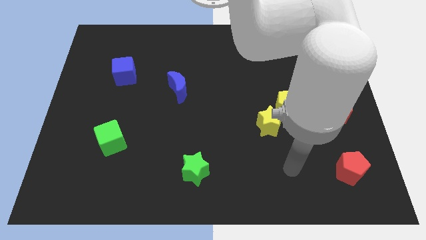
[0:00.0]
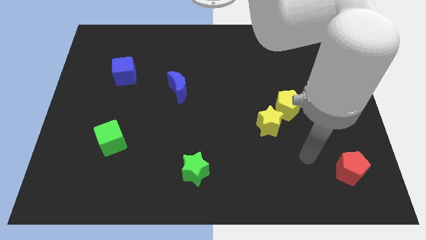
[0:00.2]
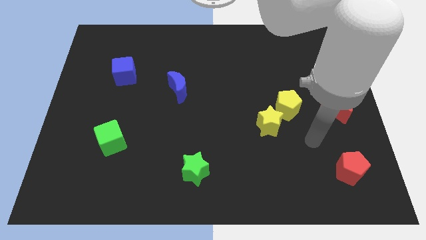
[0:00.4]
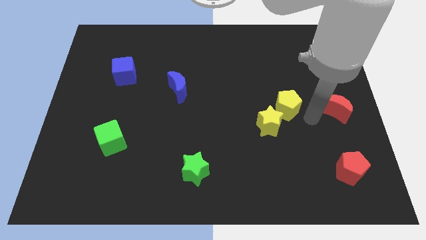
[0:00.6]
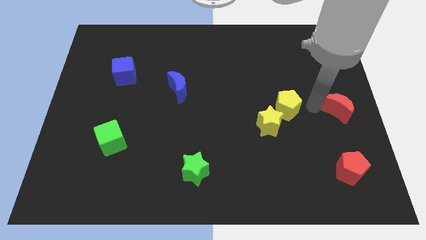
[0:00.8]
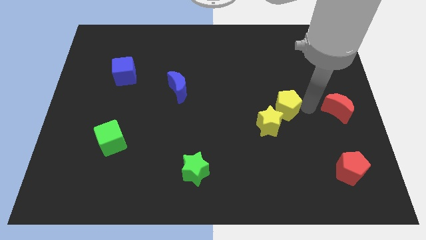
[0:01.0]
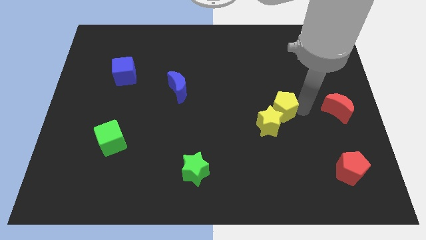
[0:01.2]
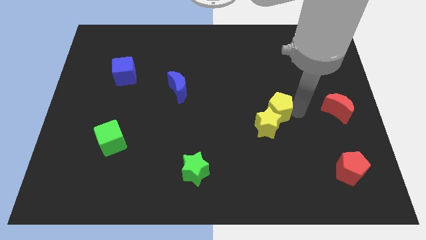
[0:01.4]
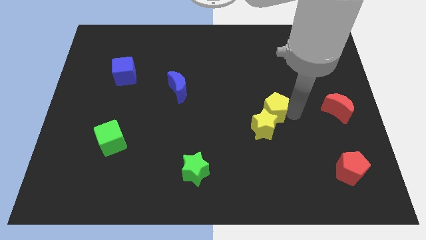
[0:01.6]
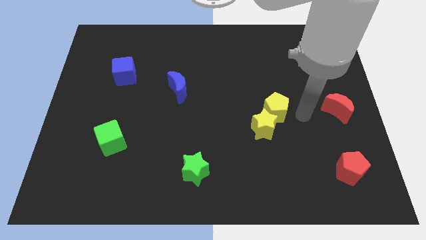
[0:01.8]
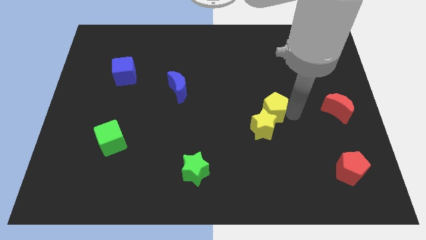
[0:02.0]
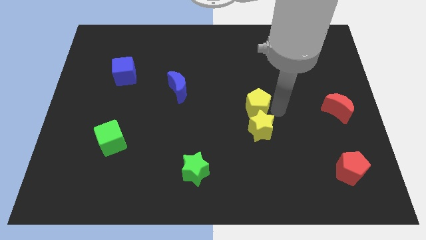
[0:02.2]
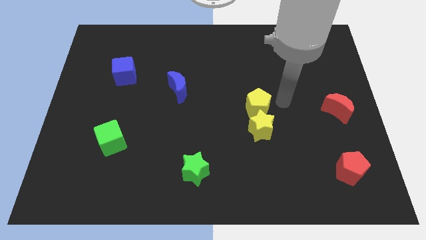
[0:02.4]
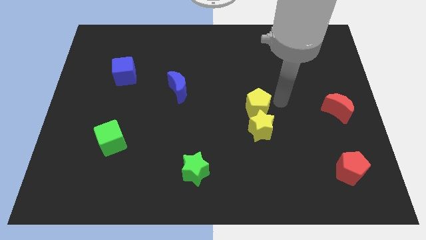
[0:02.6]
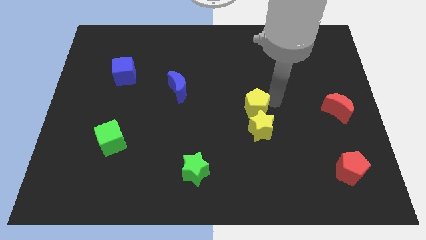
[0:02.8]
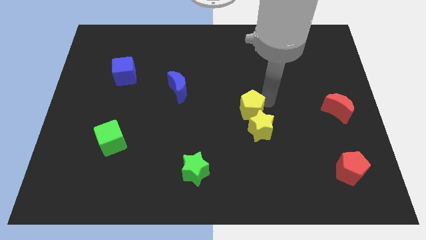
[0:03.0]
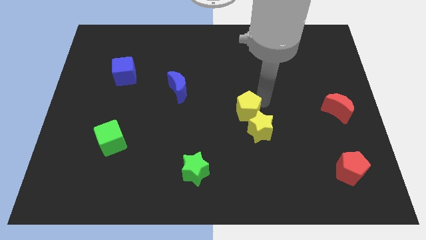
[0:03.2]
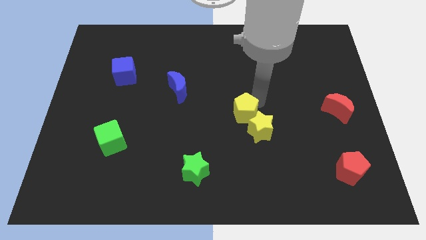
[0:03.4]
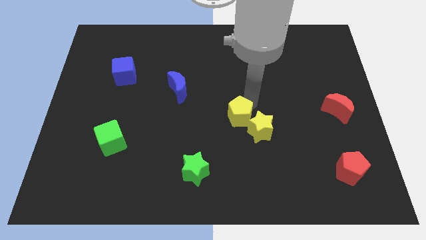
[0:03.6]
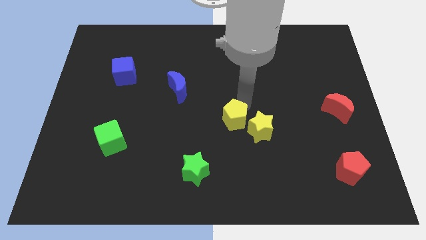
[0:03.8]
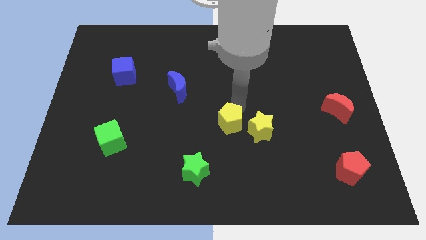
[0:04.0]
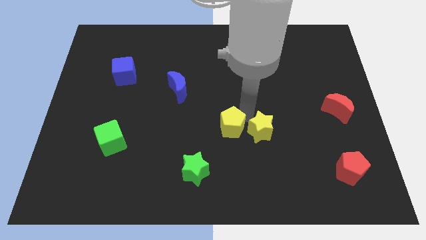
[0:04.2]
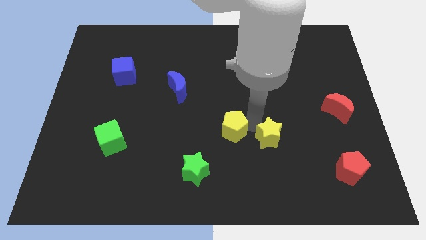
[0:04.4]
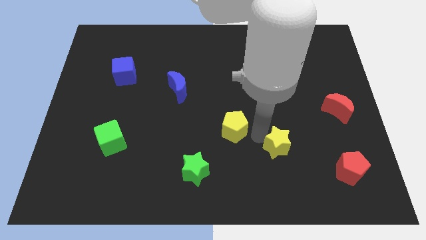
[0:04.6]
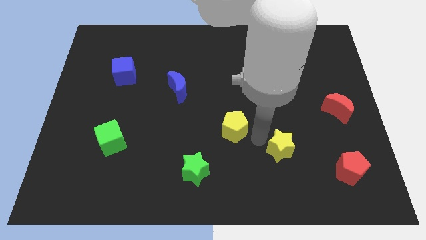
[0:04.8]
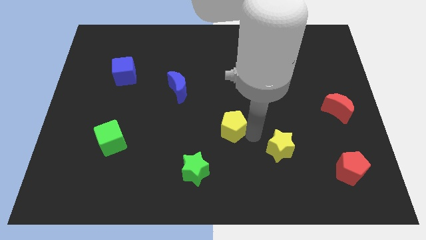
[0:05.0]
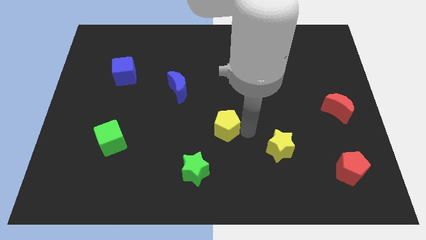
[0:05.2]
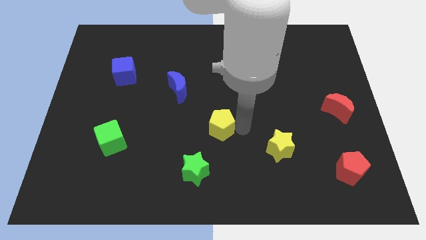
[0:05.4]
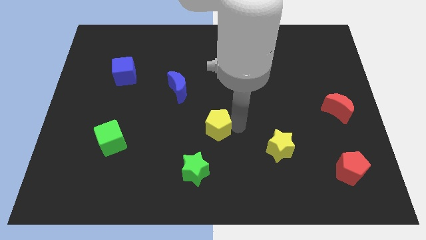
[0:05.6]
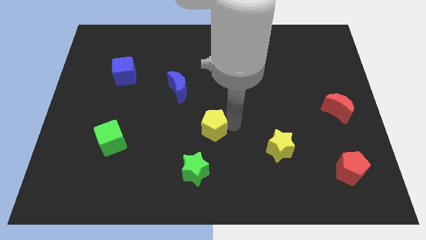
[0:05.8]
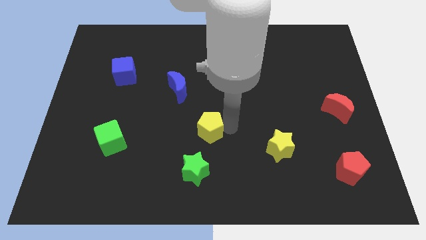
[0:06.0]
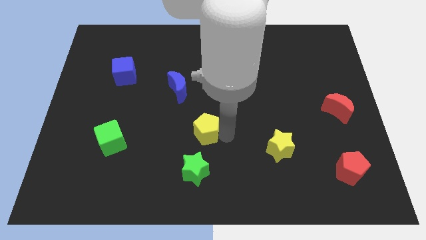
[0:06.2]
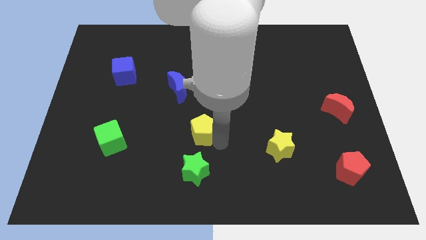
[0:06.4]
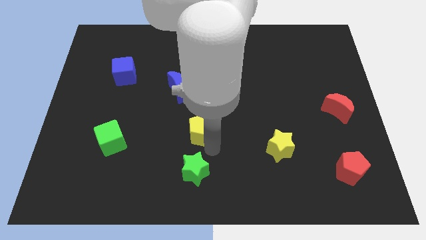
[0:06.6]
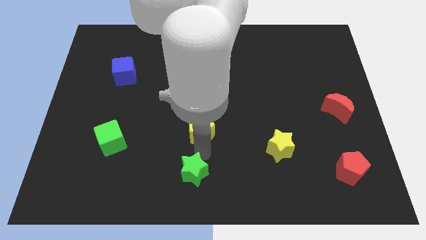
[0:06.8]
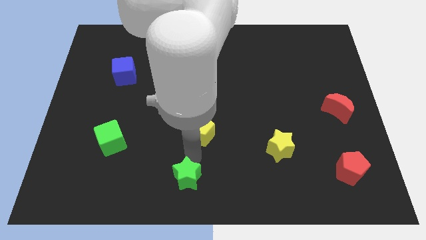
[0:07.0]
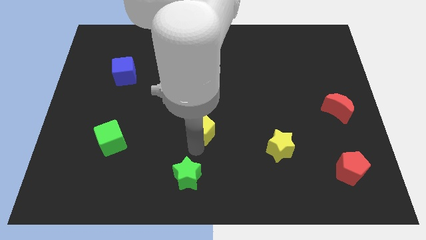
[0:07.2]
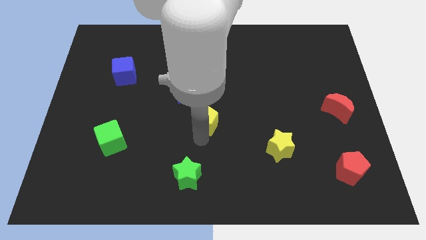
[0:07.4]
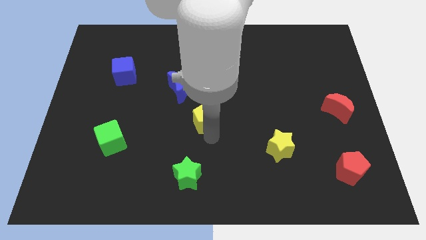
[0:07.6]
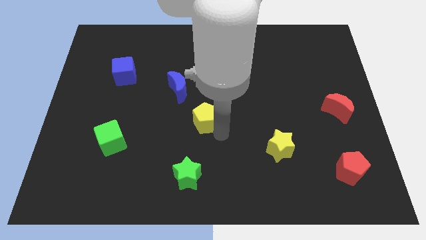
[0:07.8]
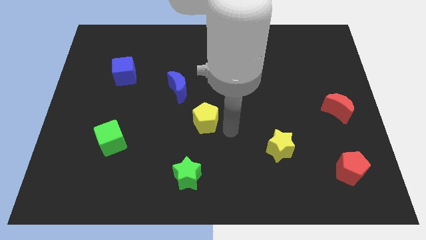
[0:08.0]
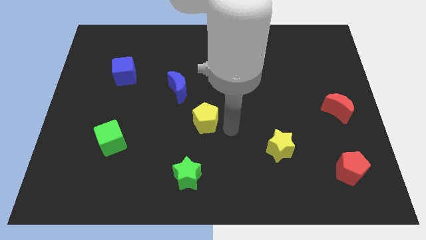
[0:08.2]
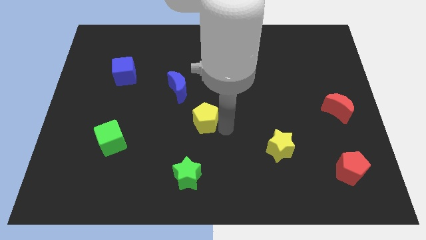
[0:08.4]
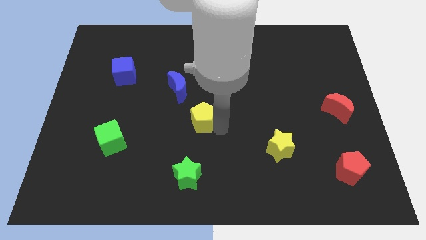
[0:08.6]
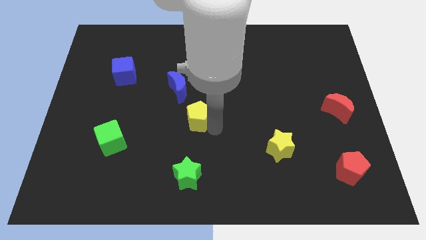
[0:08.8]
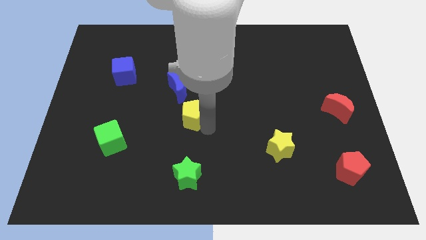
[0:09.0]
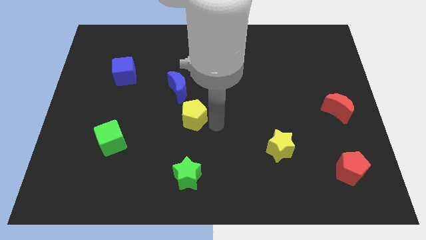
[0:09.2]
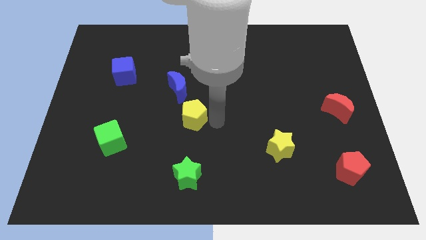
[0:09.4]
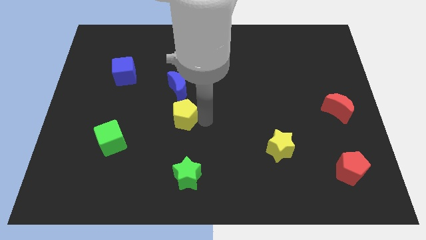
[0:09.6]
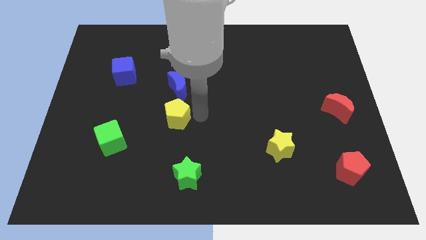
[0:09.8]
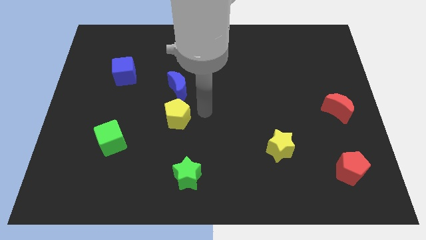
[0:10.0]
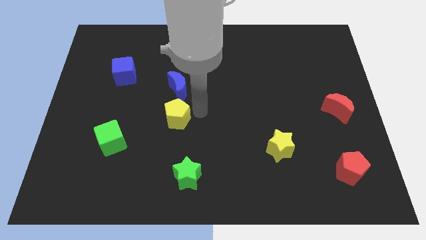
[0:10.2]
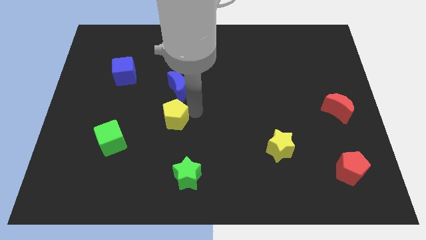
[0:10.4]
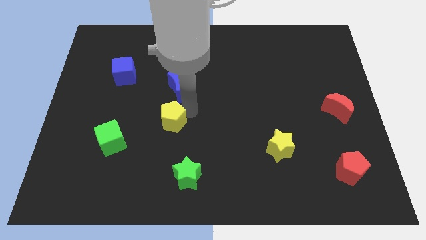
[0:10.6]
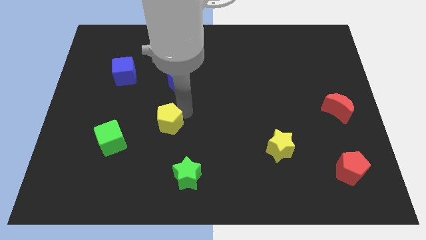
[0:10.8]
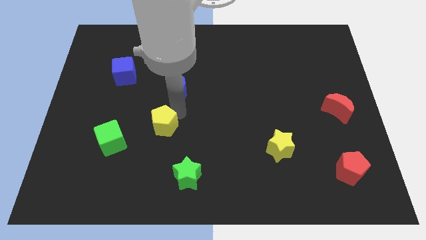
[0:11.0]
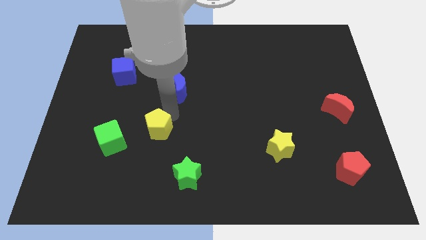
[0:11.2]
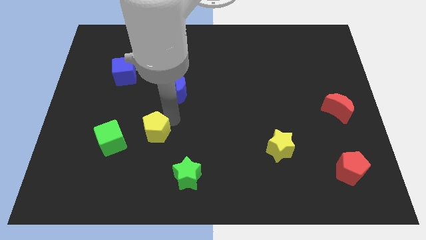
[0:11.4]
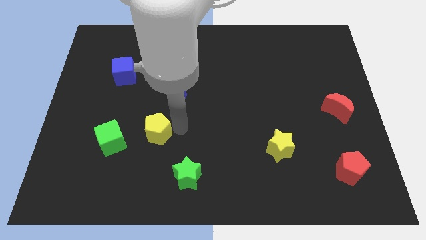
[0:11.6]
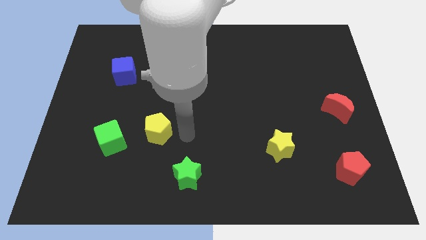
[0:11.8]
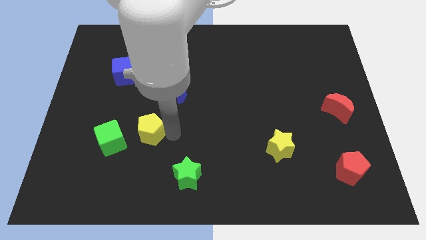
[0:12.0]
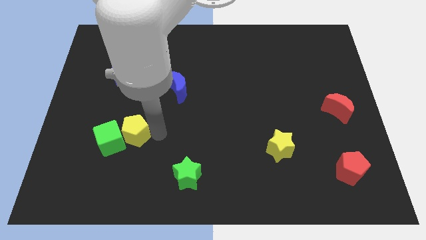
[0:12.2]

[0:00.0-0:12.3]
push the yellow pentagon close to the green cube

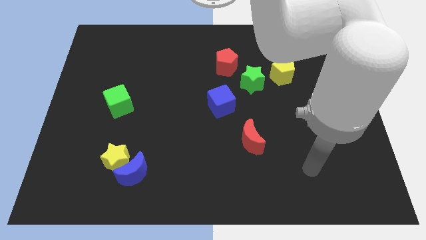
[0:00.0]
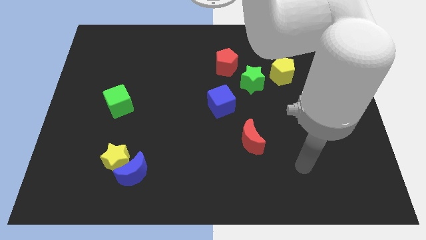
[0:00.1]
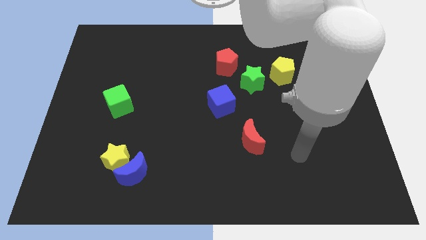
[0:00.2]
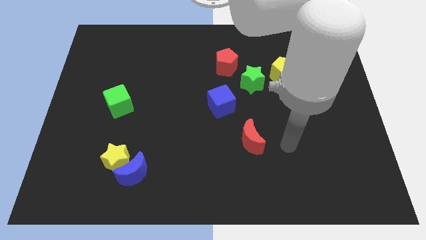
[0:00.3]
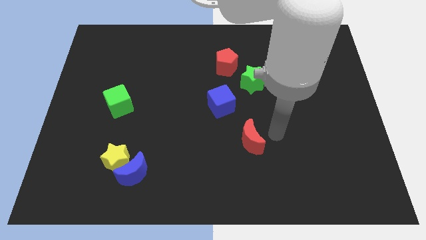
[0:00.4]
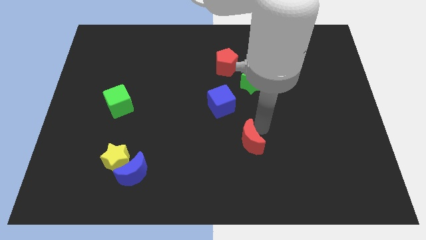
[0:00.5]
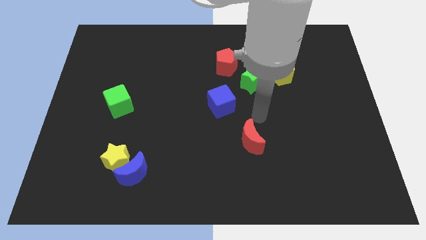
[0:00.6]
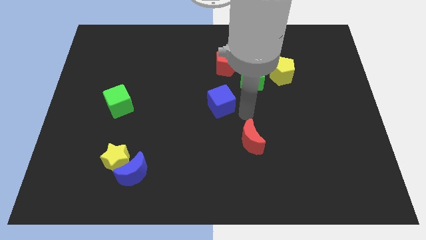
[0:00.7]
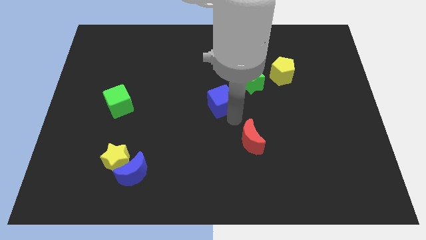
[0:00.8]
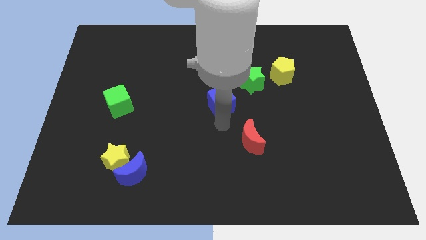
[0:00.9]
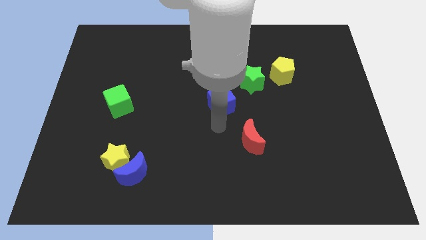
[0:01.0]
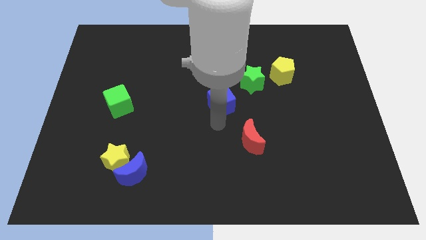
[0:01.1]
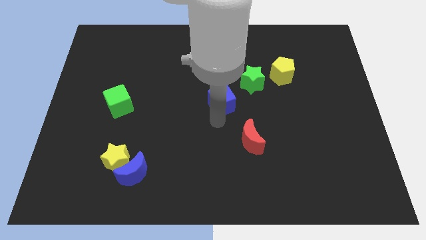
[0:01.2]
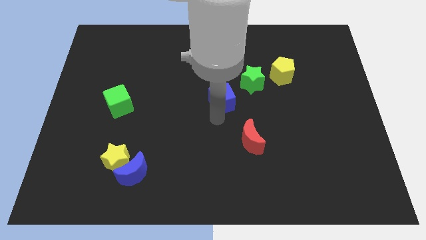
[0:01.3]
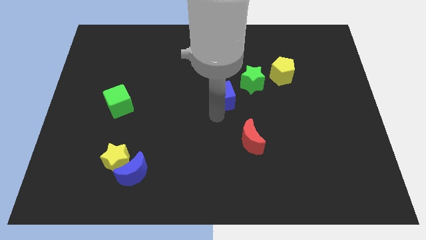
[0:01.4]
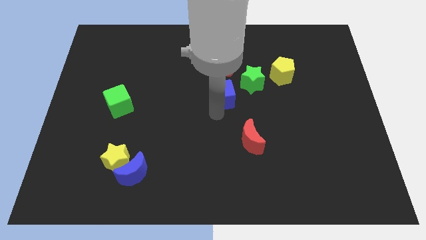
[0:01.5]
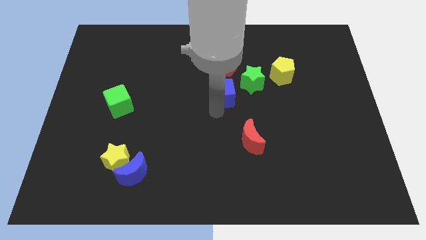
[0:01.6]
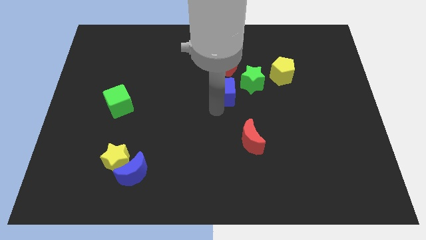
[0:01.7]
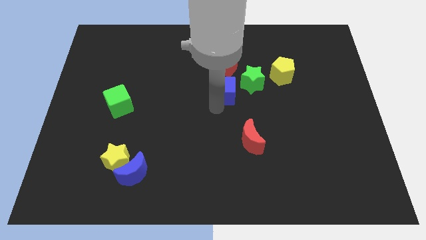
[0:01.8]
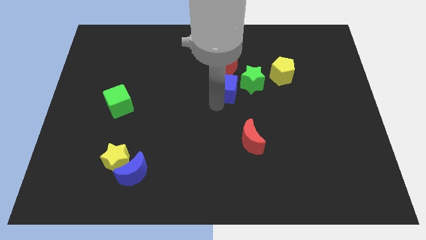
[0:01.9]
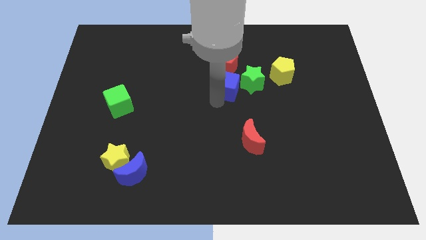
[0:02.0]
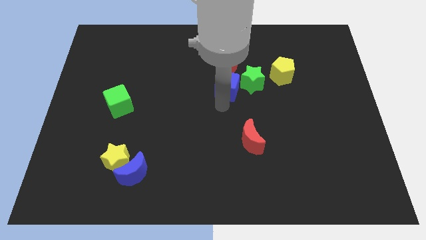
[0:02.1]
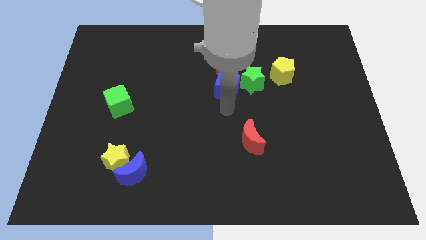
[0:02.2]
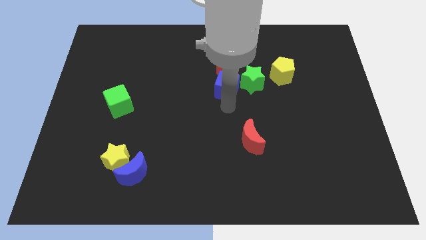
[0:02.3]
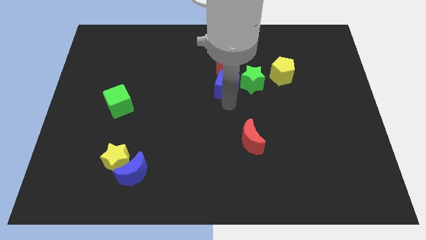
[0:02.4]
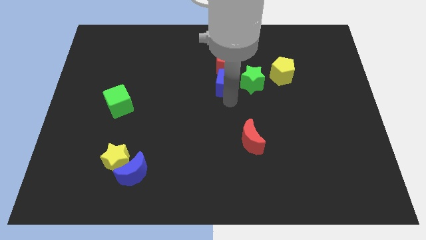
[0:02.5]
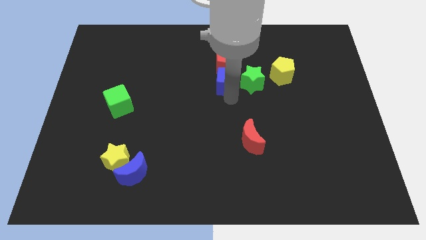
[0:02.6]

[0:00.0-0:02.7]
put the blue cube close to the red pentagon
